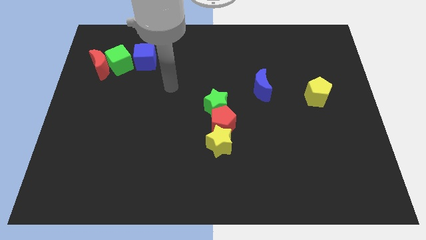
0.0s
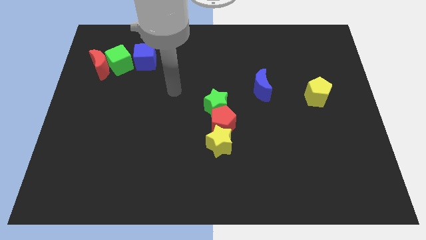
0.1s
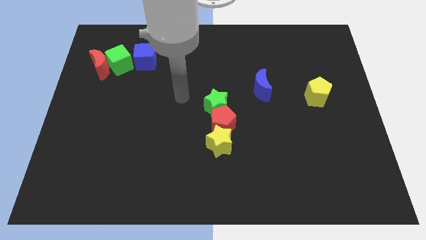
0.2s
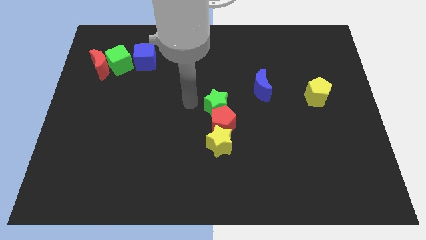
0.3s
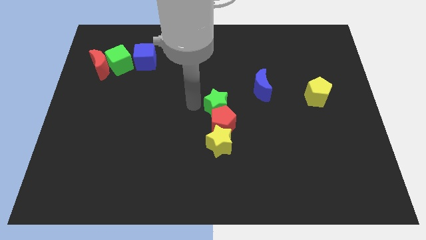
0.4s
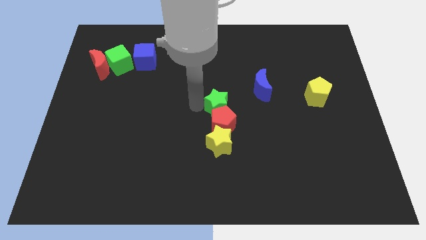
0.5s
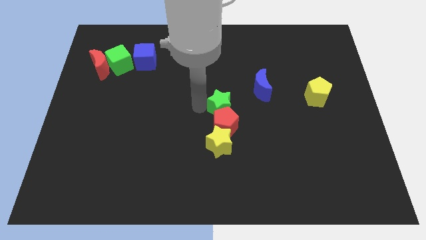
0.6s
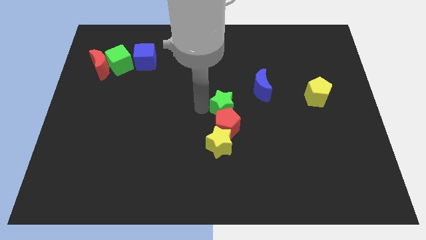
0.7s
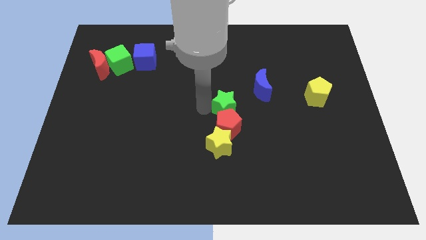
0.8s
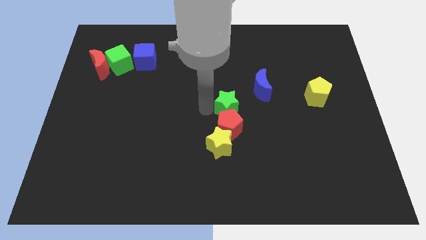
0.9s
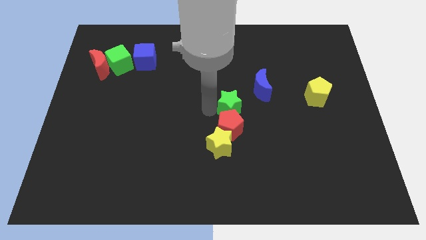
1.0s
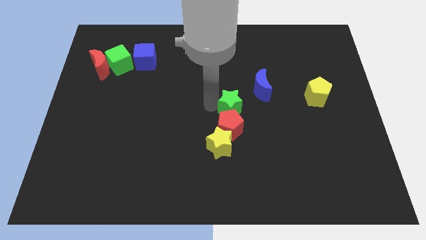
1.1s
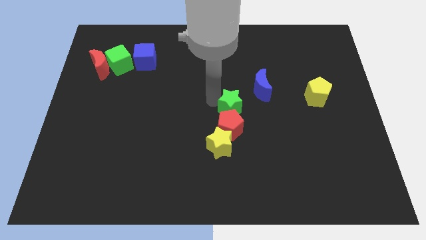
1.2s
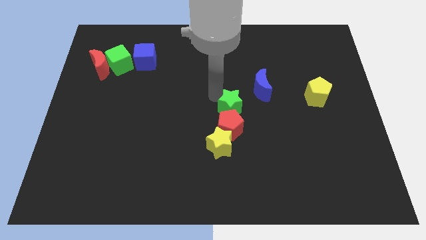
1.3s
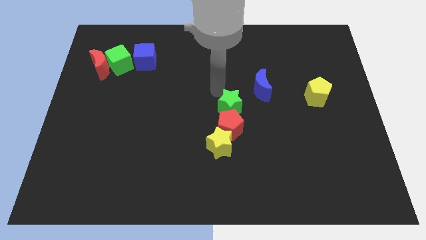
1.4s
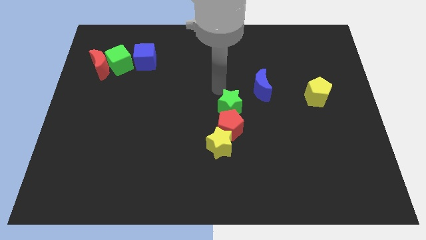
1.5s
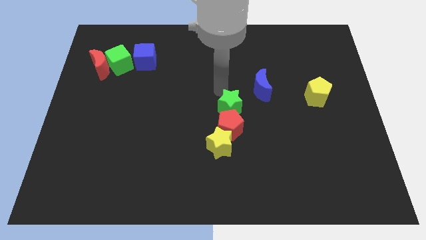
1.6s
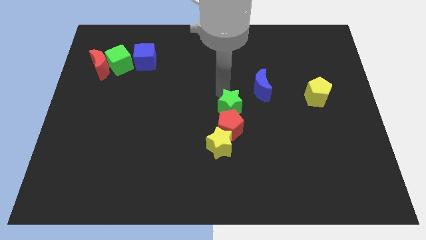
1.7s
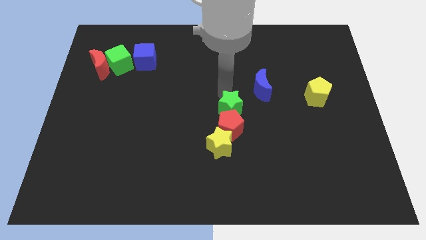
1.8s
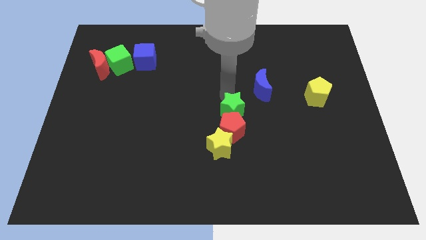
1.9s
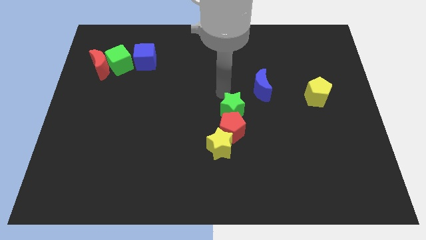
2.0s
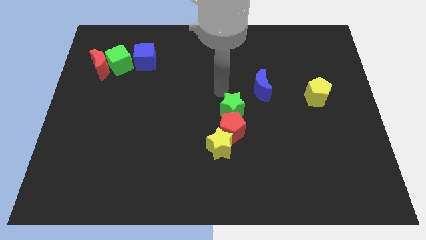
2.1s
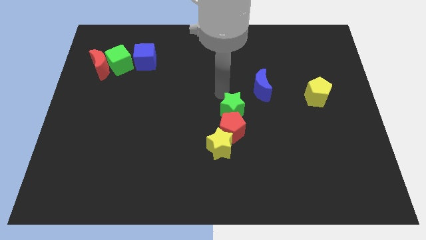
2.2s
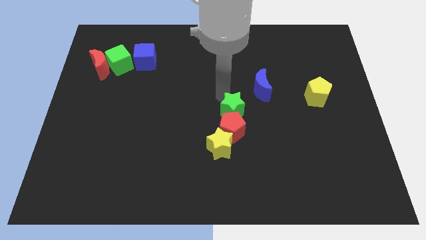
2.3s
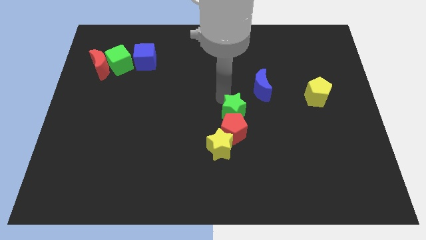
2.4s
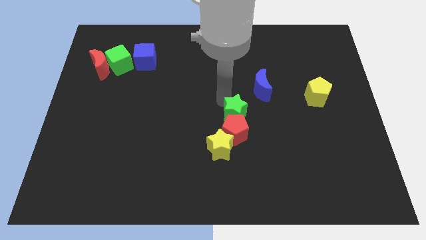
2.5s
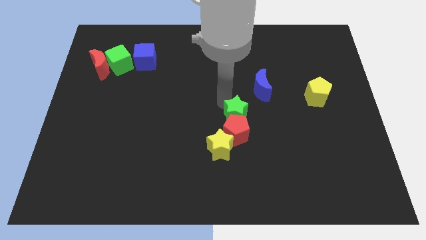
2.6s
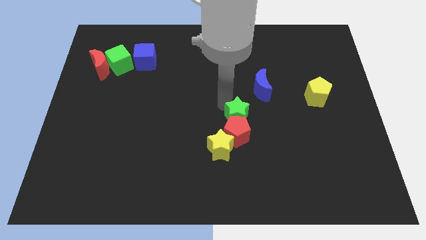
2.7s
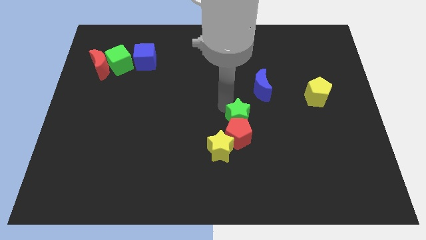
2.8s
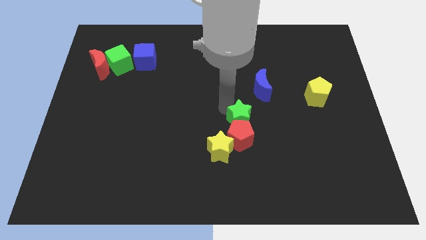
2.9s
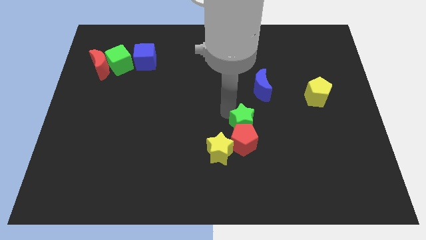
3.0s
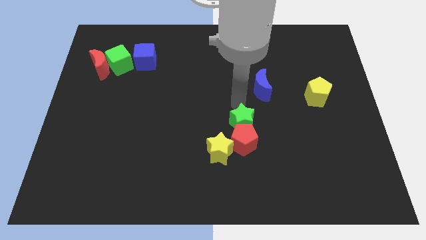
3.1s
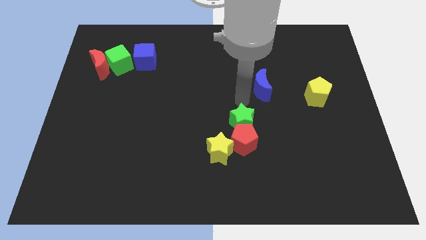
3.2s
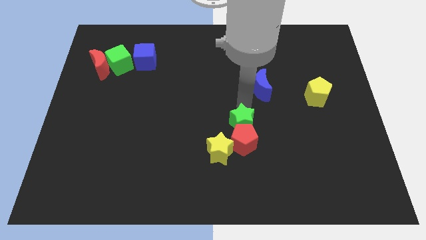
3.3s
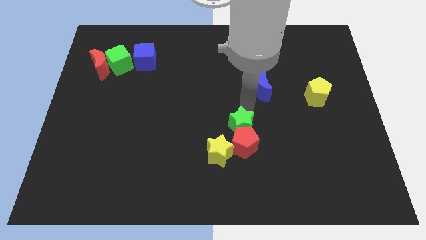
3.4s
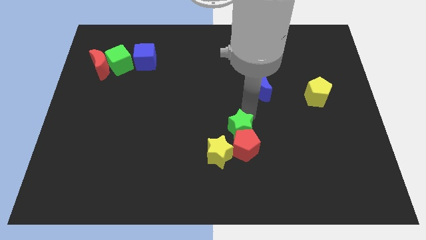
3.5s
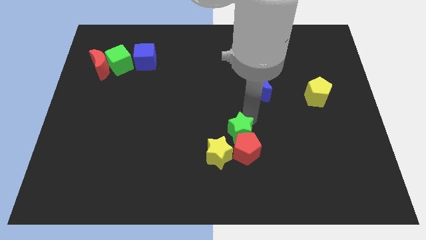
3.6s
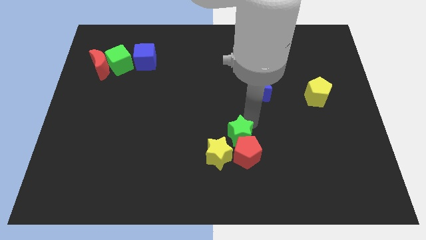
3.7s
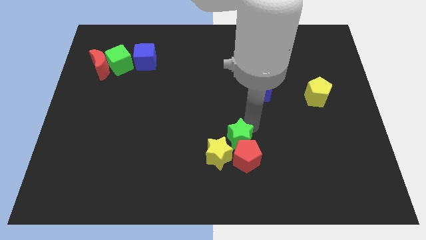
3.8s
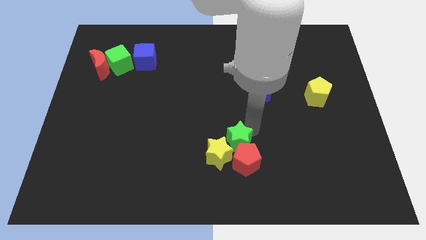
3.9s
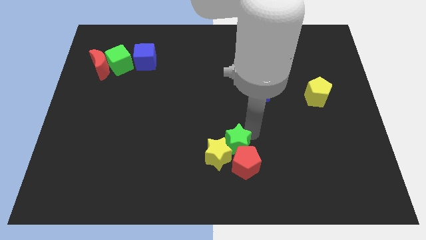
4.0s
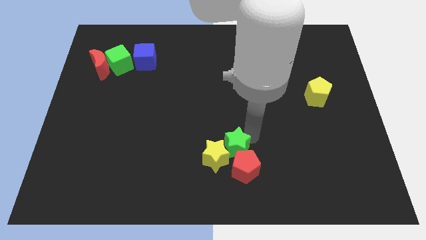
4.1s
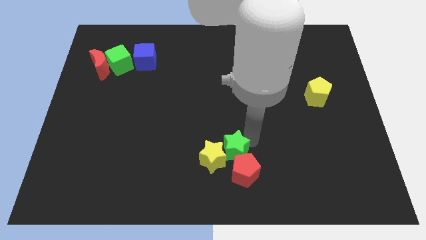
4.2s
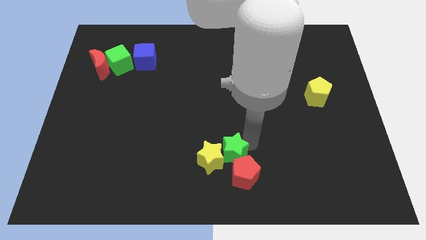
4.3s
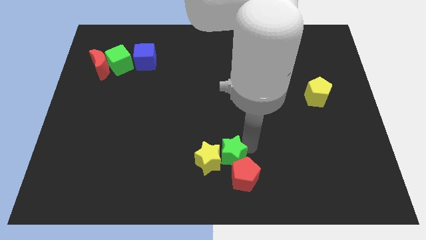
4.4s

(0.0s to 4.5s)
push the green star to the bottom right side of the yellow star

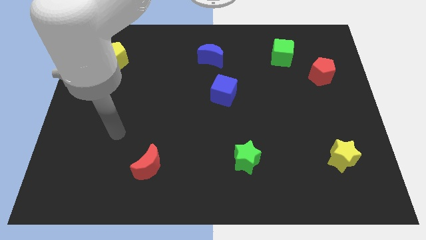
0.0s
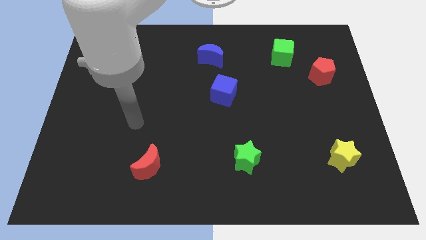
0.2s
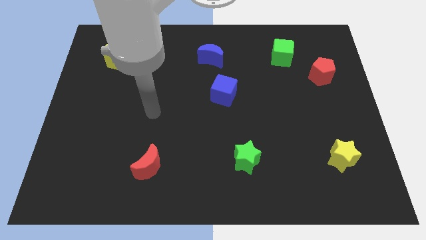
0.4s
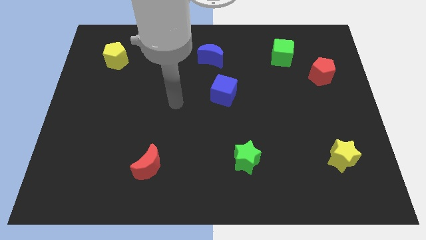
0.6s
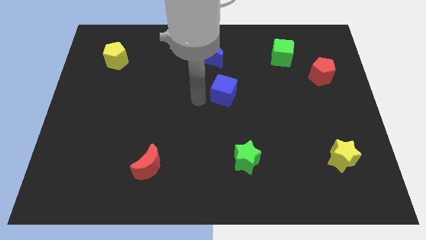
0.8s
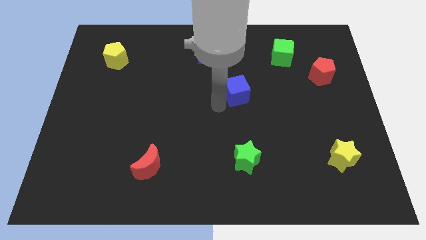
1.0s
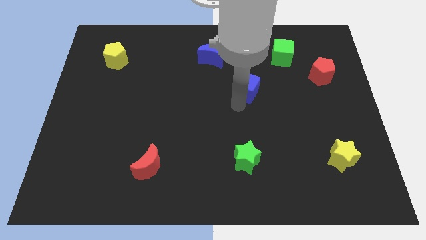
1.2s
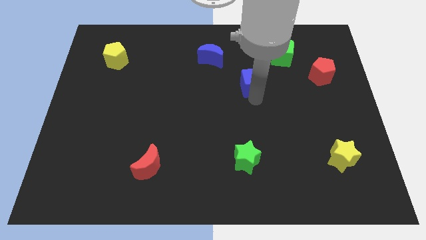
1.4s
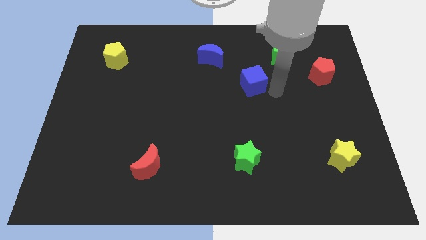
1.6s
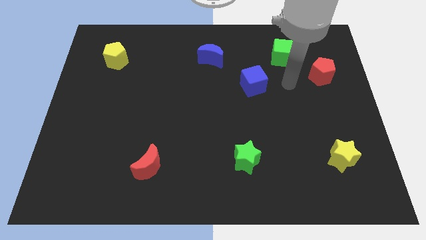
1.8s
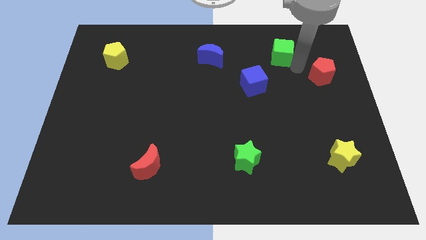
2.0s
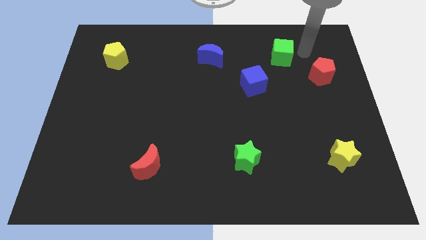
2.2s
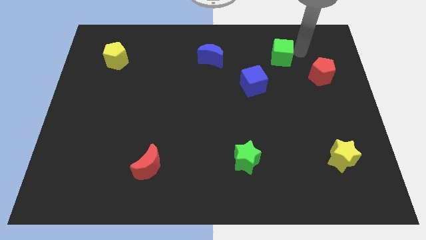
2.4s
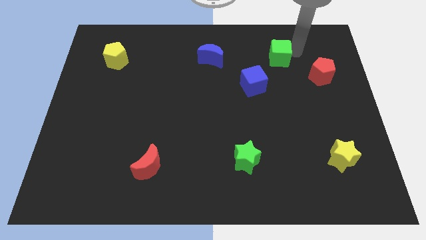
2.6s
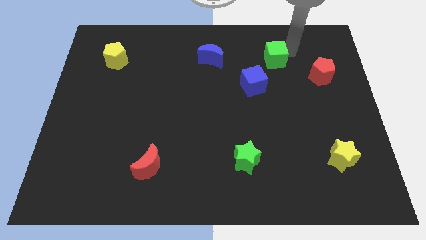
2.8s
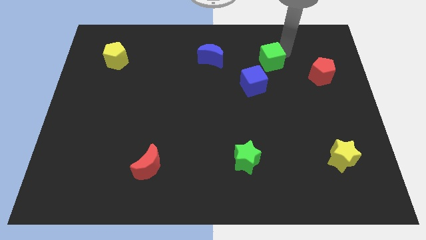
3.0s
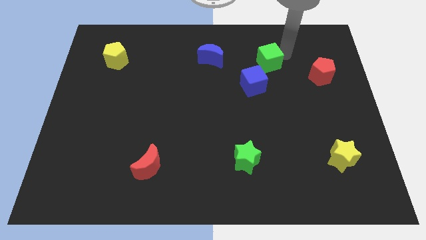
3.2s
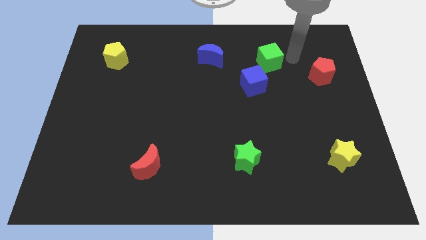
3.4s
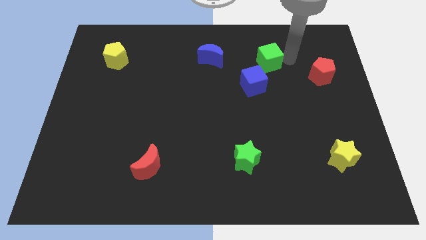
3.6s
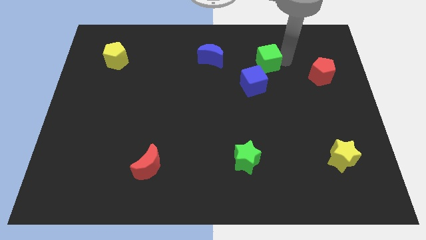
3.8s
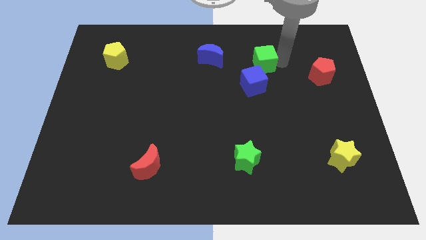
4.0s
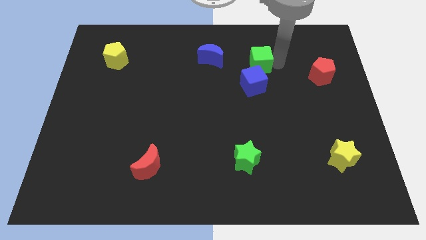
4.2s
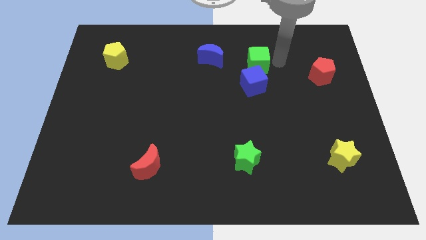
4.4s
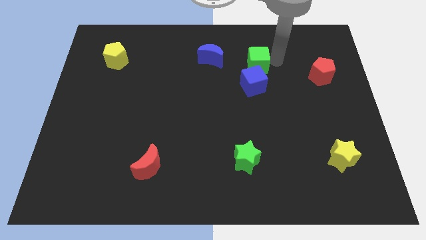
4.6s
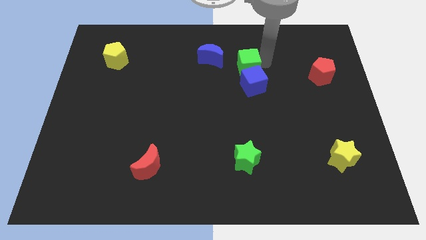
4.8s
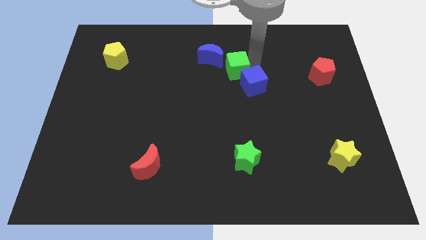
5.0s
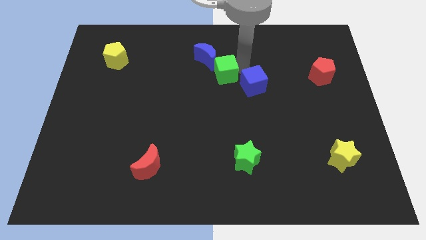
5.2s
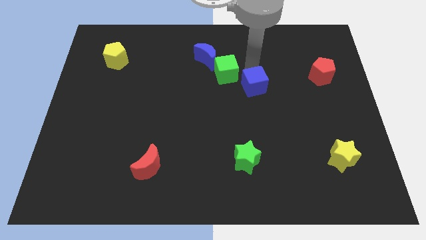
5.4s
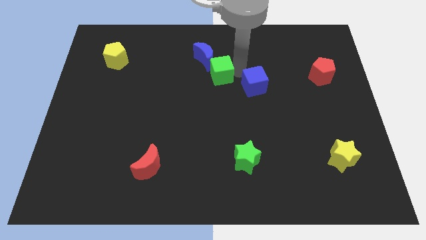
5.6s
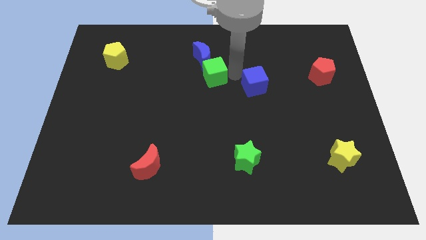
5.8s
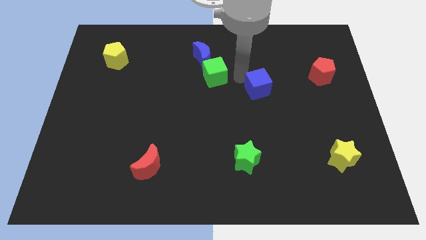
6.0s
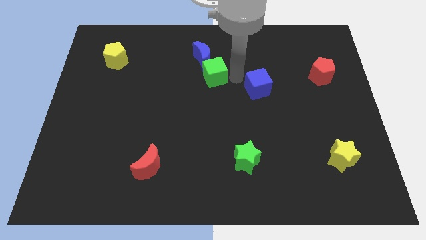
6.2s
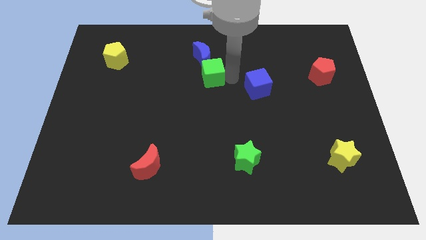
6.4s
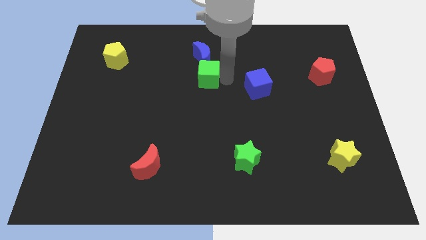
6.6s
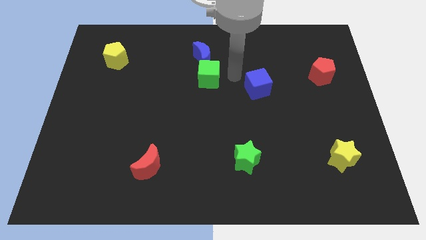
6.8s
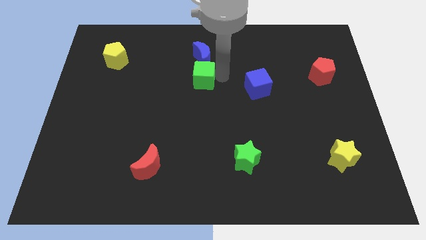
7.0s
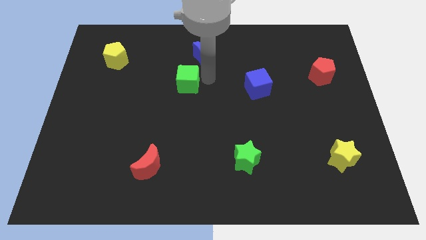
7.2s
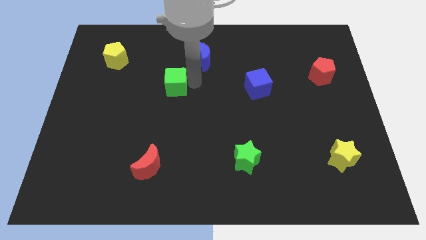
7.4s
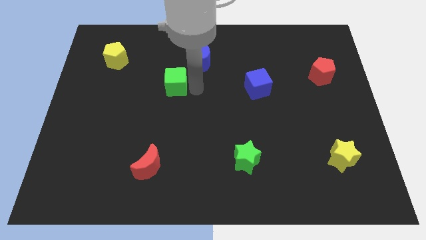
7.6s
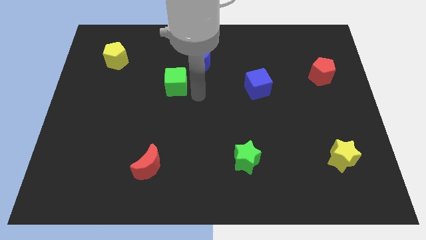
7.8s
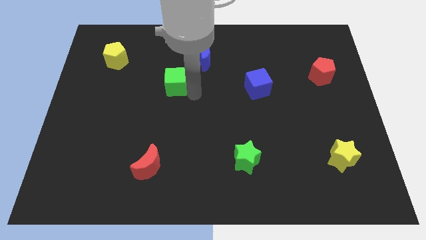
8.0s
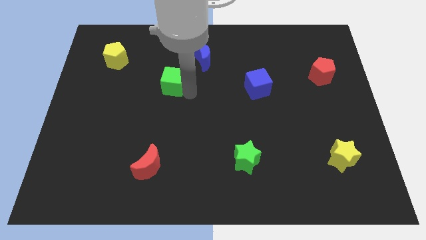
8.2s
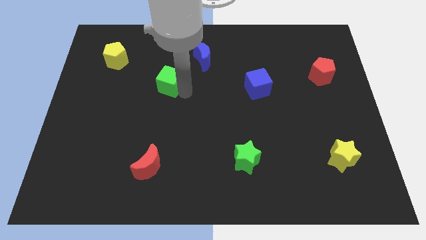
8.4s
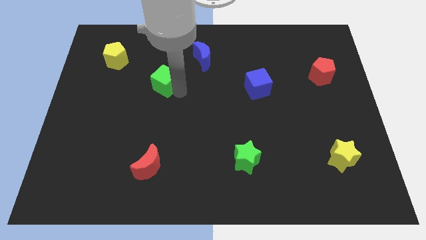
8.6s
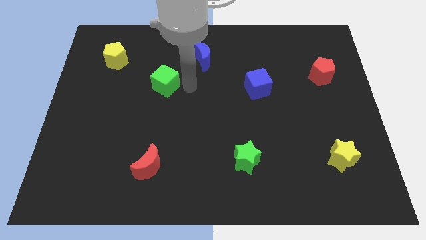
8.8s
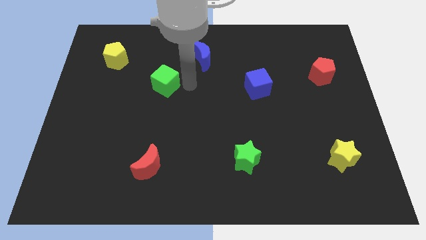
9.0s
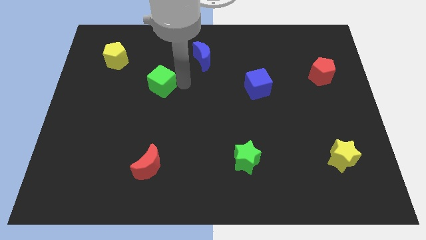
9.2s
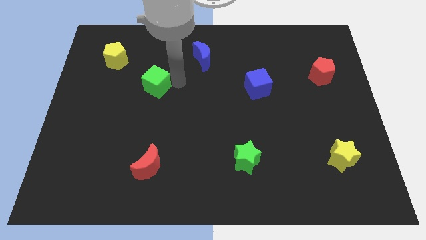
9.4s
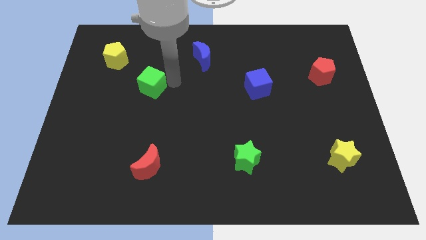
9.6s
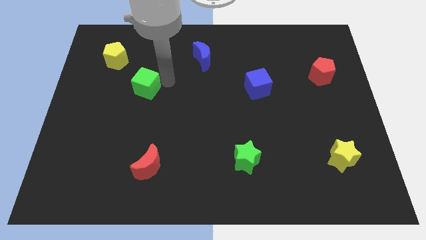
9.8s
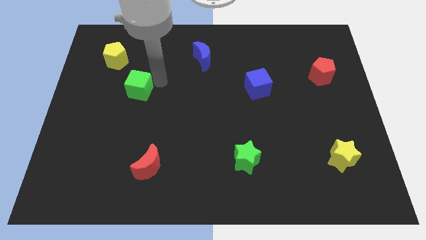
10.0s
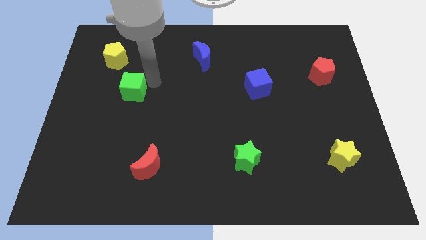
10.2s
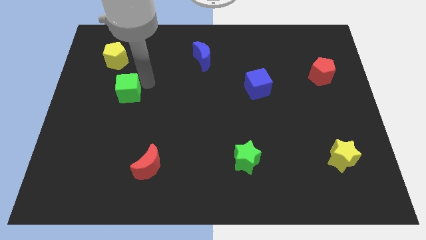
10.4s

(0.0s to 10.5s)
slide the green cube below the yellow pentagon
